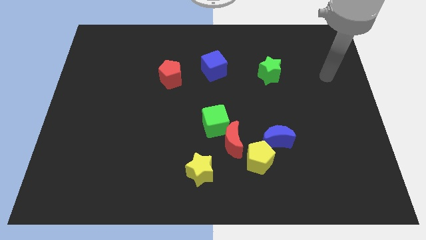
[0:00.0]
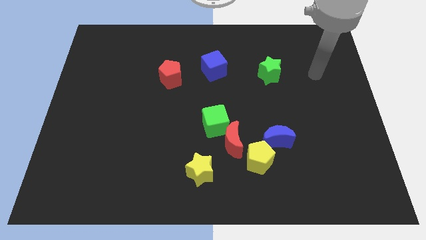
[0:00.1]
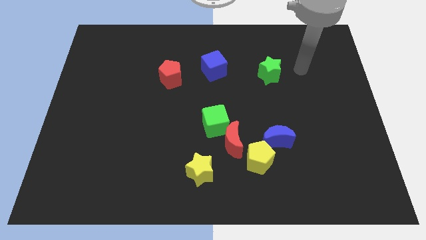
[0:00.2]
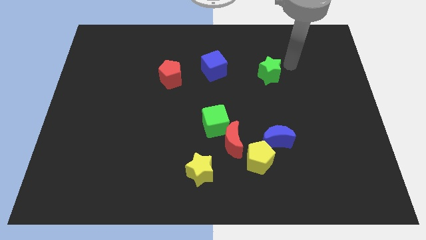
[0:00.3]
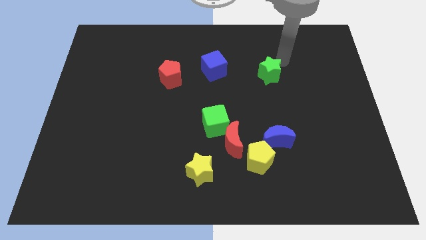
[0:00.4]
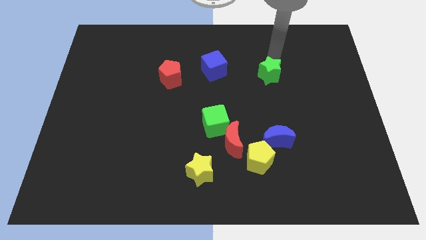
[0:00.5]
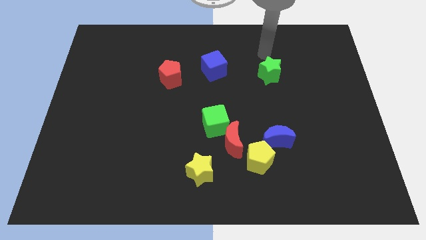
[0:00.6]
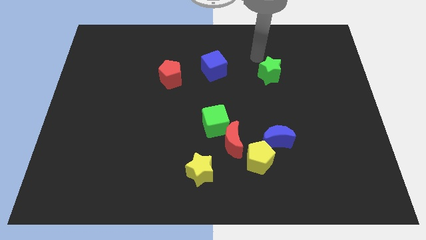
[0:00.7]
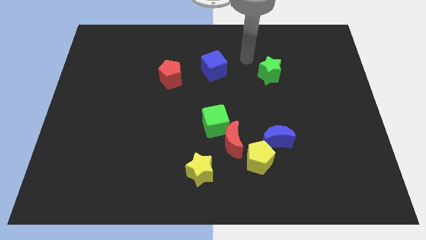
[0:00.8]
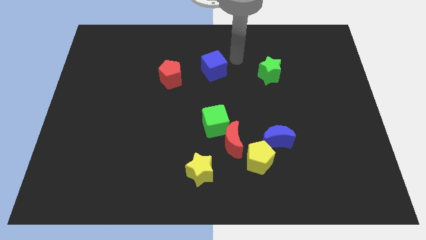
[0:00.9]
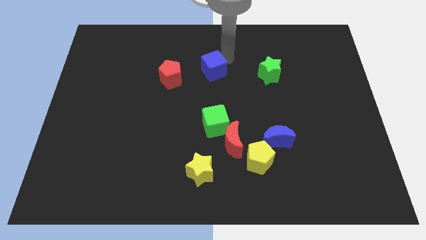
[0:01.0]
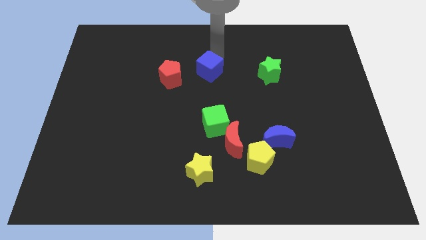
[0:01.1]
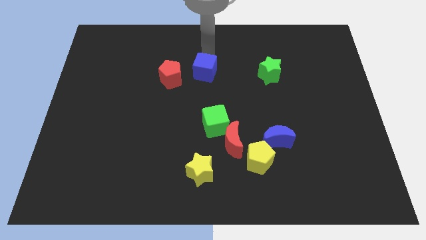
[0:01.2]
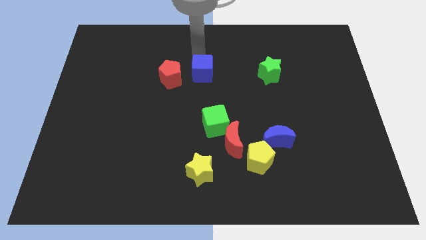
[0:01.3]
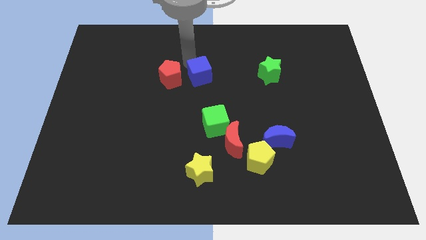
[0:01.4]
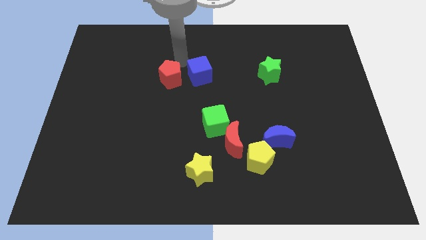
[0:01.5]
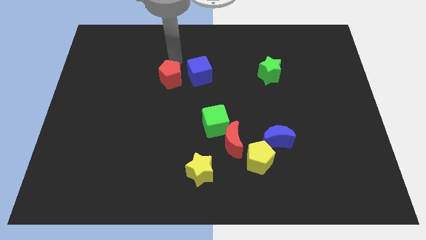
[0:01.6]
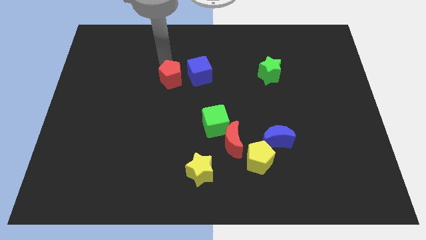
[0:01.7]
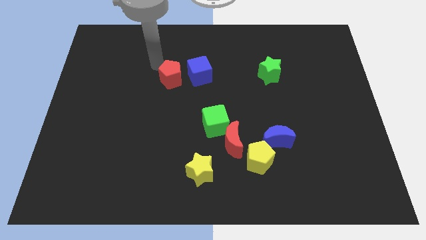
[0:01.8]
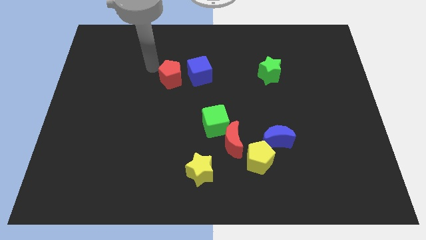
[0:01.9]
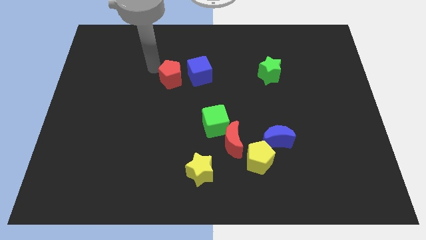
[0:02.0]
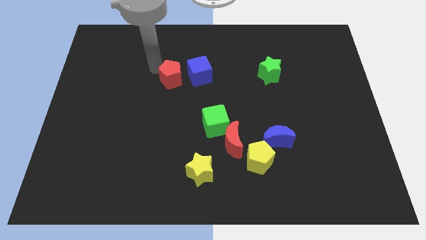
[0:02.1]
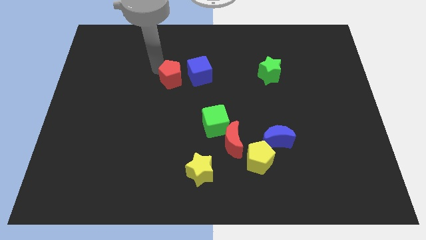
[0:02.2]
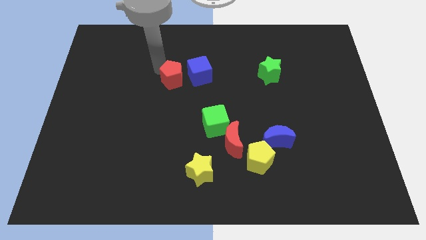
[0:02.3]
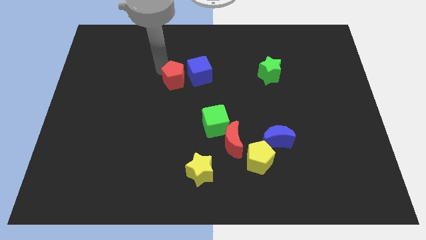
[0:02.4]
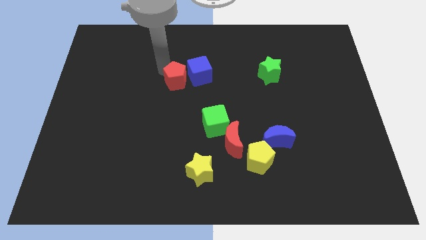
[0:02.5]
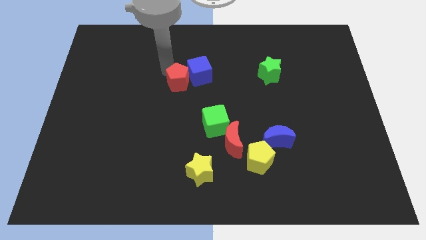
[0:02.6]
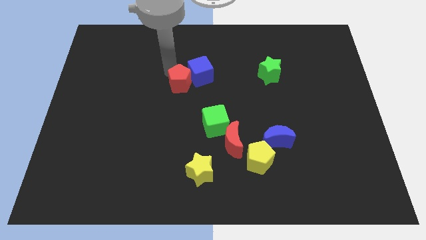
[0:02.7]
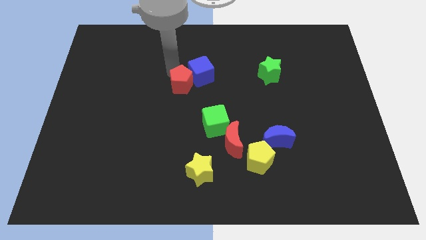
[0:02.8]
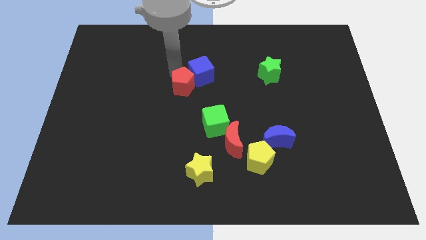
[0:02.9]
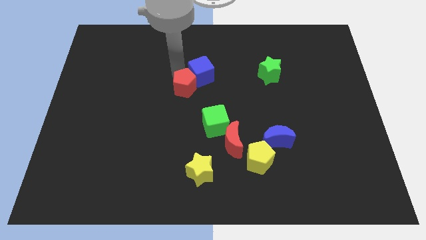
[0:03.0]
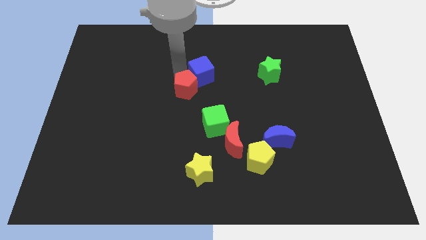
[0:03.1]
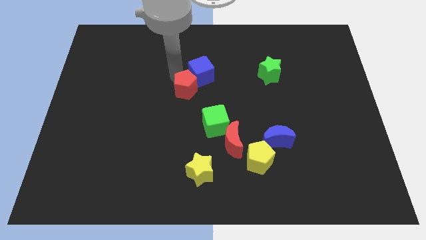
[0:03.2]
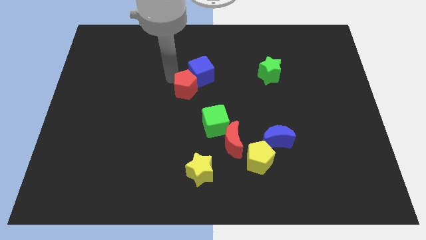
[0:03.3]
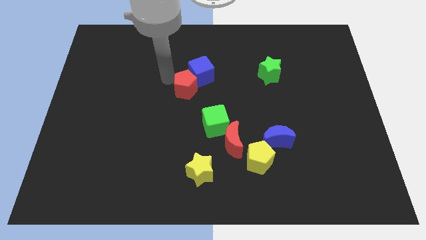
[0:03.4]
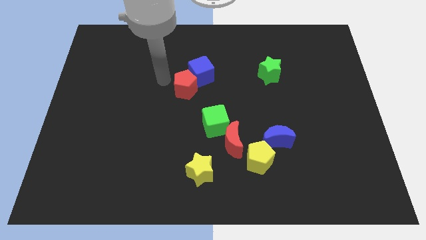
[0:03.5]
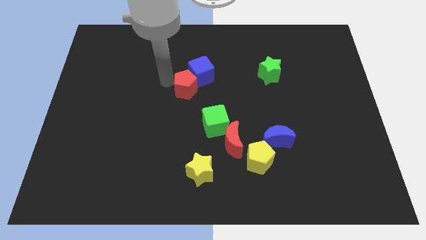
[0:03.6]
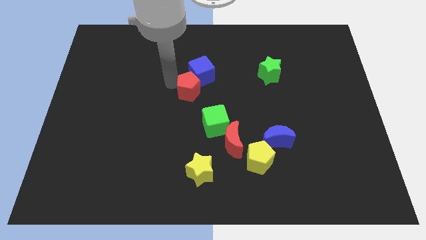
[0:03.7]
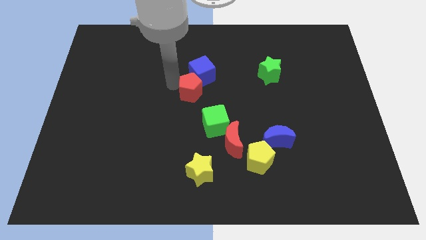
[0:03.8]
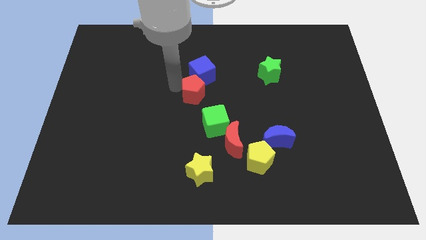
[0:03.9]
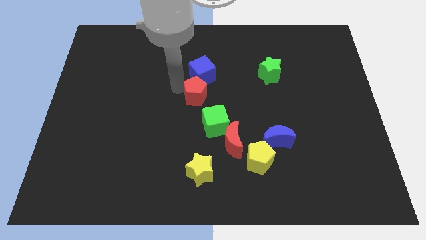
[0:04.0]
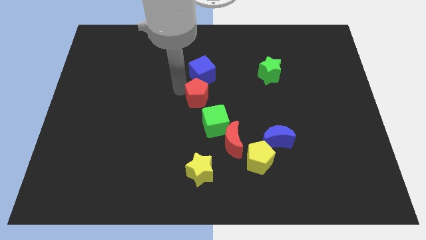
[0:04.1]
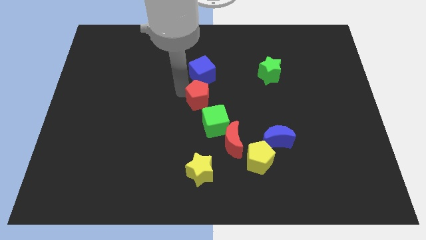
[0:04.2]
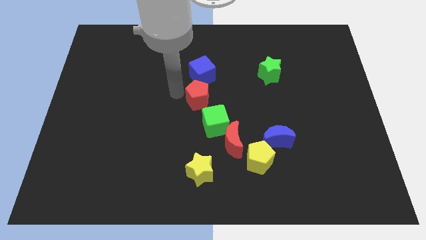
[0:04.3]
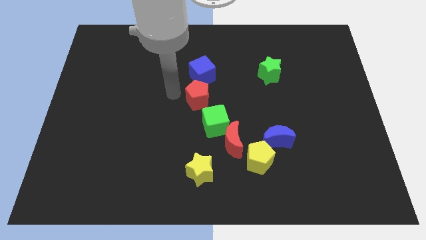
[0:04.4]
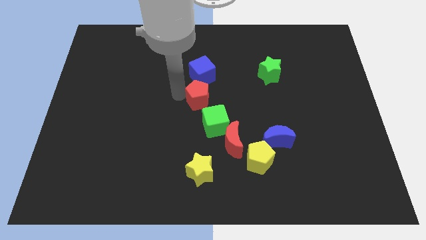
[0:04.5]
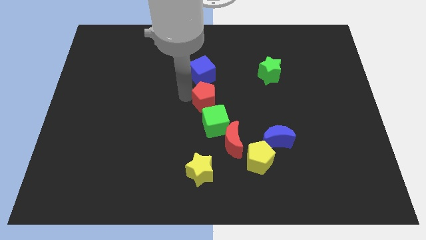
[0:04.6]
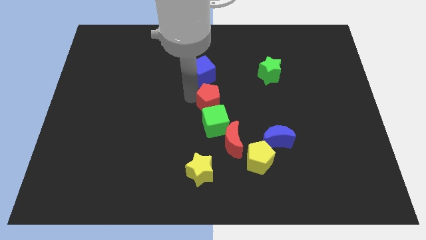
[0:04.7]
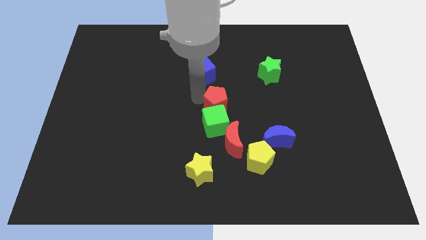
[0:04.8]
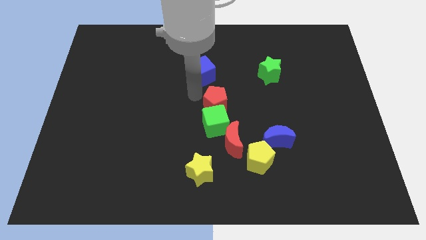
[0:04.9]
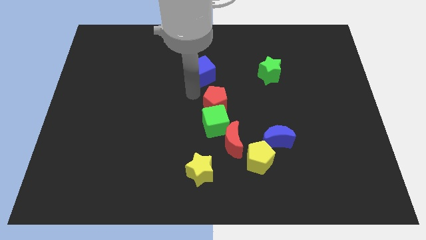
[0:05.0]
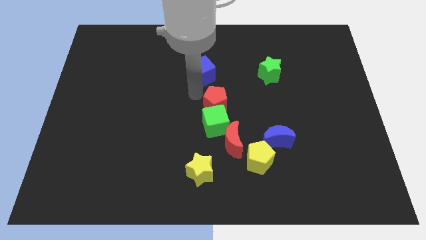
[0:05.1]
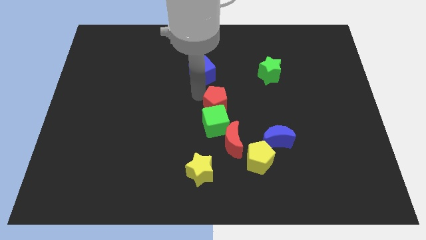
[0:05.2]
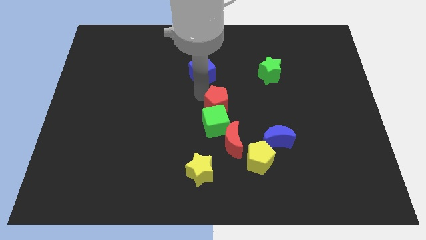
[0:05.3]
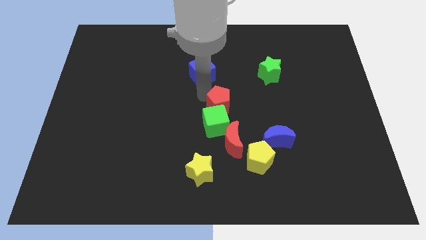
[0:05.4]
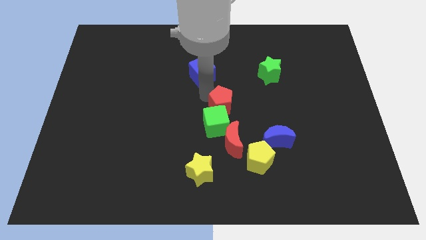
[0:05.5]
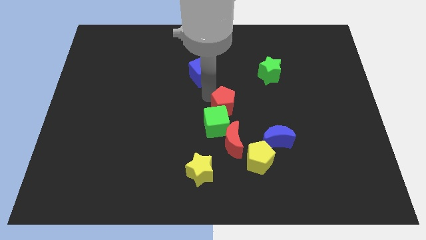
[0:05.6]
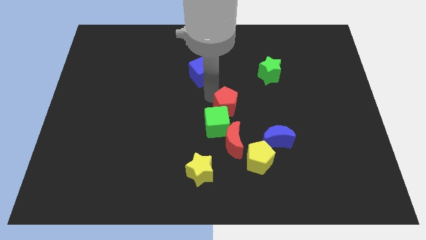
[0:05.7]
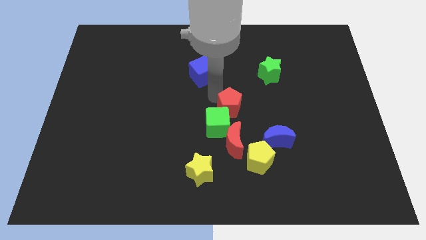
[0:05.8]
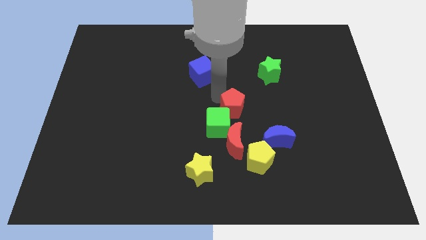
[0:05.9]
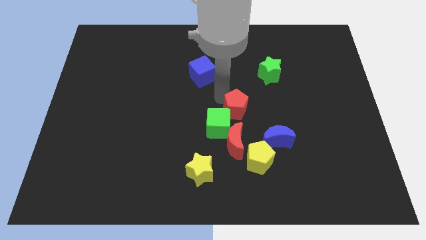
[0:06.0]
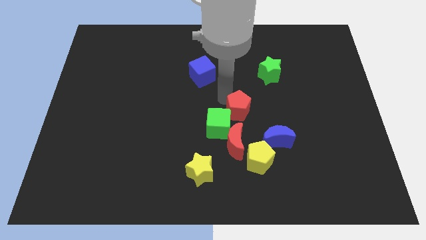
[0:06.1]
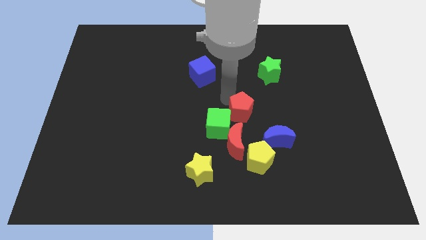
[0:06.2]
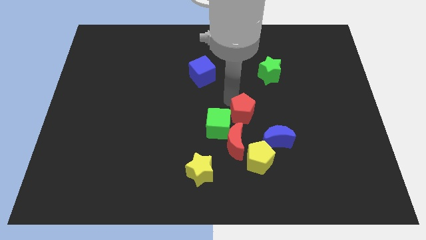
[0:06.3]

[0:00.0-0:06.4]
put the red pentagon diagonally up and to the right of the red moon

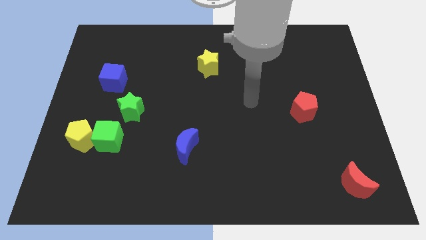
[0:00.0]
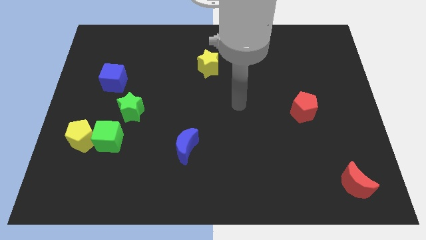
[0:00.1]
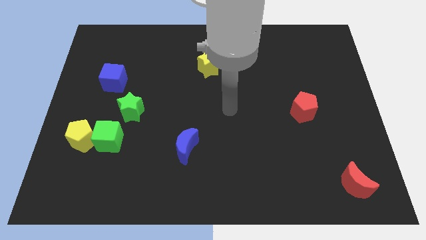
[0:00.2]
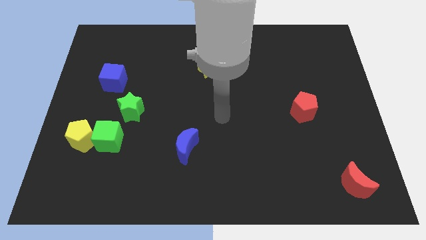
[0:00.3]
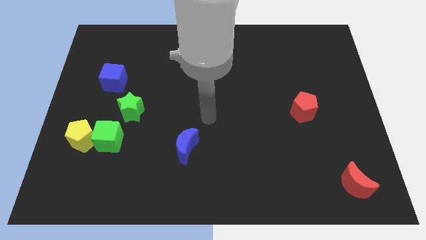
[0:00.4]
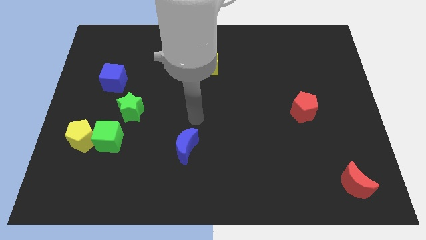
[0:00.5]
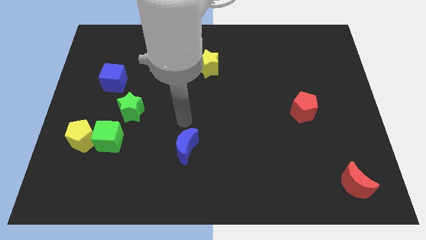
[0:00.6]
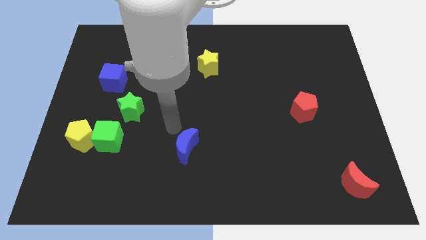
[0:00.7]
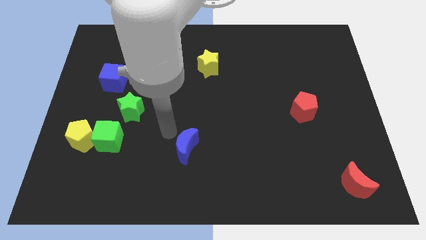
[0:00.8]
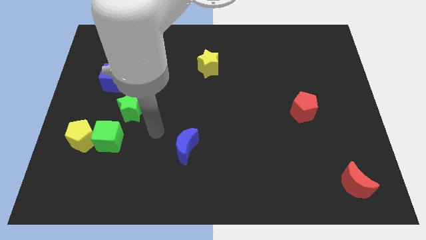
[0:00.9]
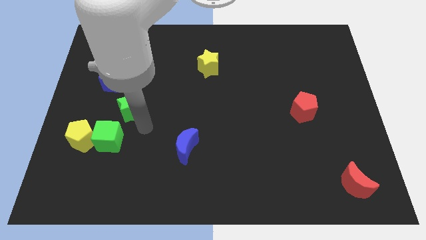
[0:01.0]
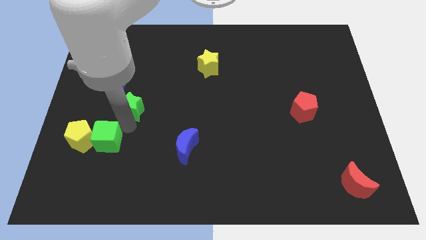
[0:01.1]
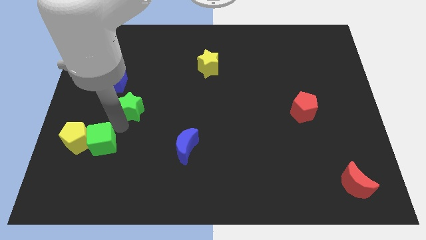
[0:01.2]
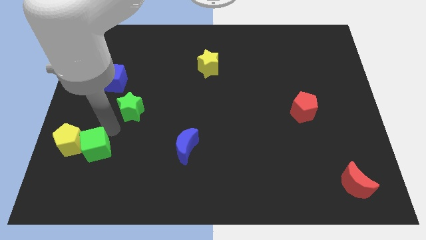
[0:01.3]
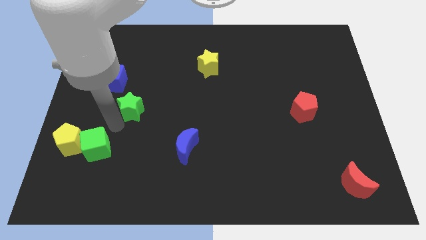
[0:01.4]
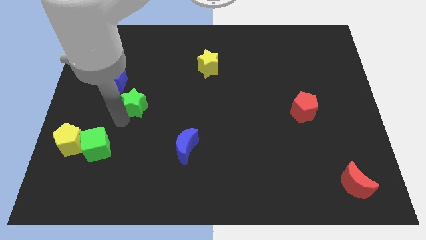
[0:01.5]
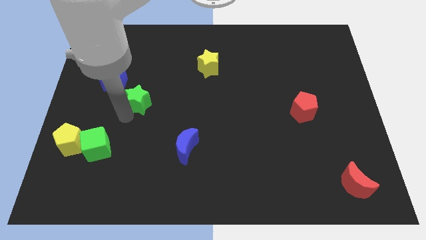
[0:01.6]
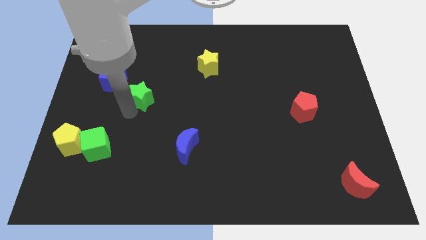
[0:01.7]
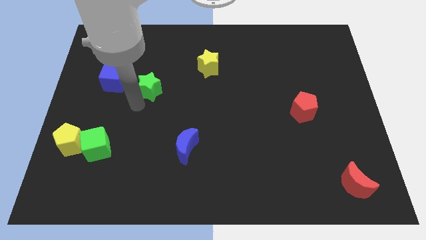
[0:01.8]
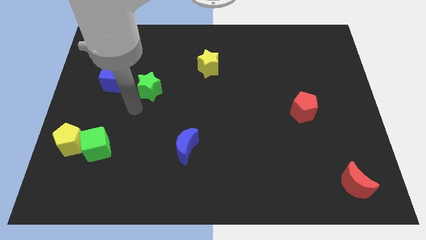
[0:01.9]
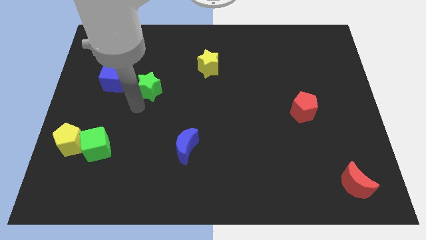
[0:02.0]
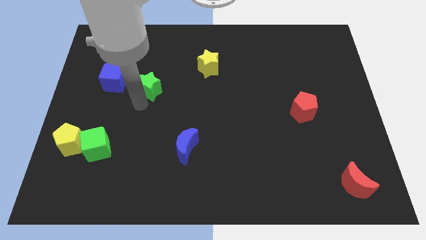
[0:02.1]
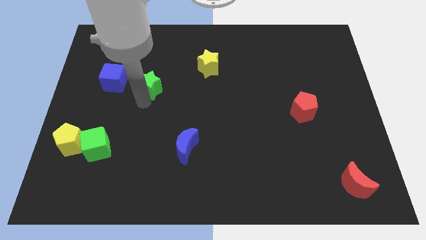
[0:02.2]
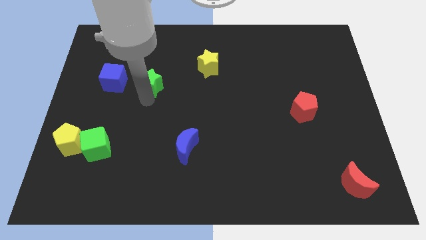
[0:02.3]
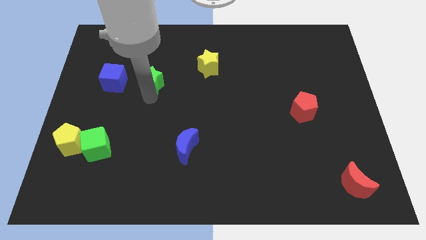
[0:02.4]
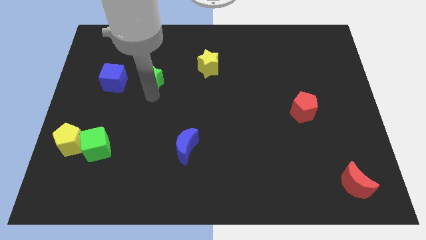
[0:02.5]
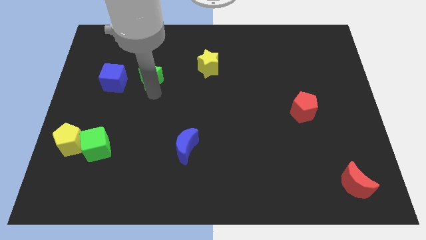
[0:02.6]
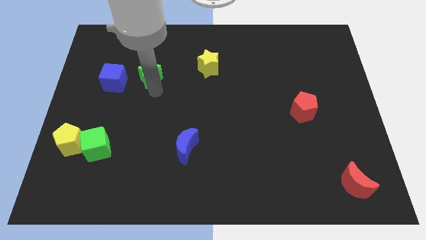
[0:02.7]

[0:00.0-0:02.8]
push the green star left of the yellow star
